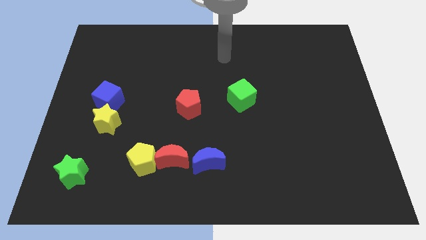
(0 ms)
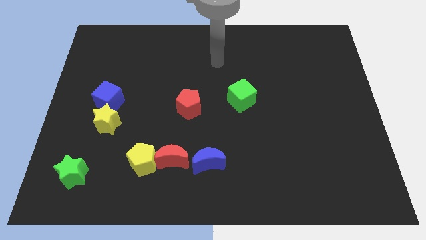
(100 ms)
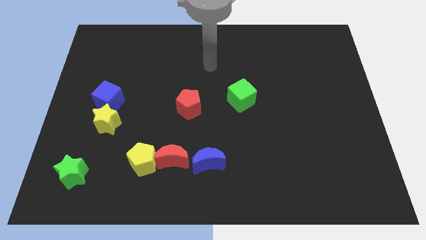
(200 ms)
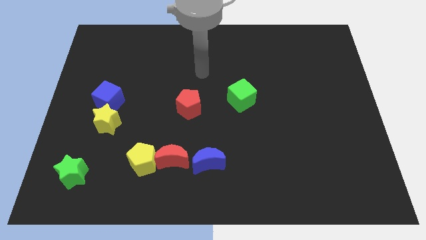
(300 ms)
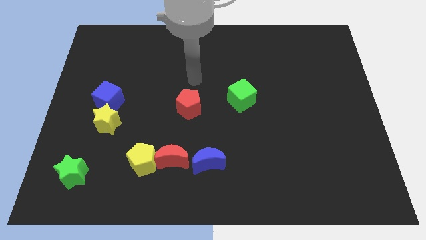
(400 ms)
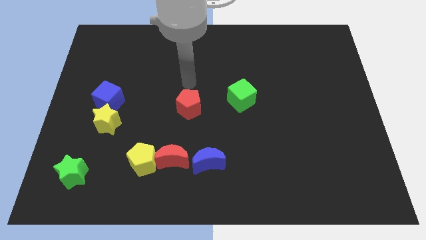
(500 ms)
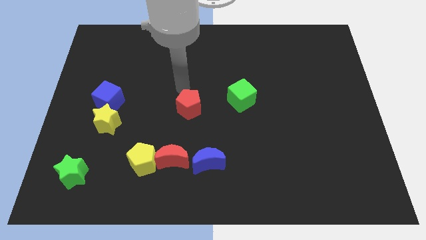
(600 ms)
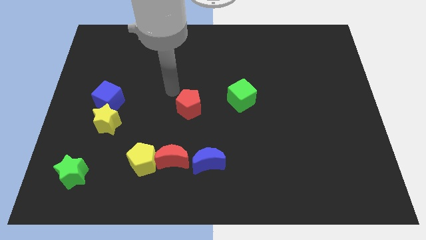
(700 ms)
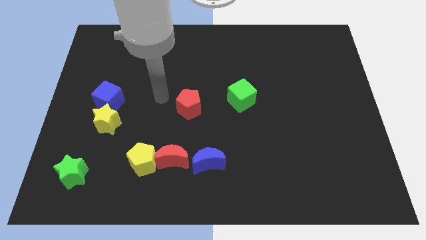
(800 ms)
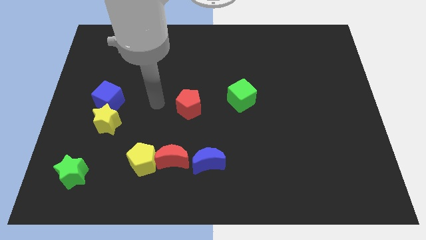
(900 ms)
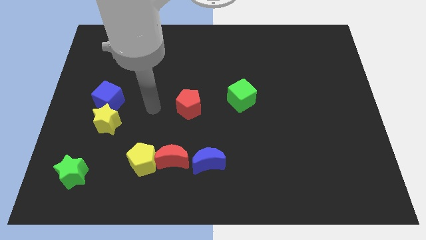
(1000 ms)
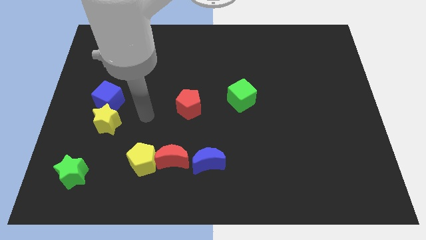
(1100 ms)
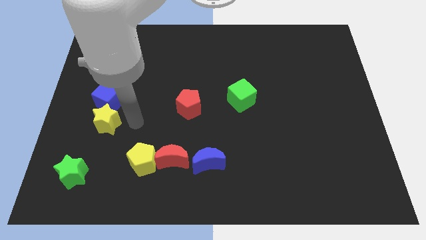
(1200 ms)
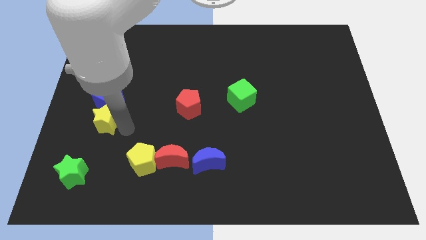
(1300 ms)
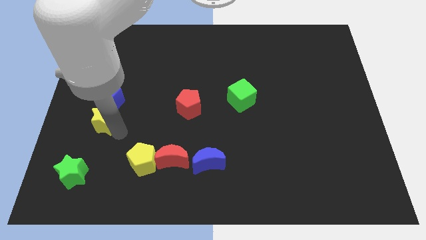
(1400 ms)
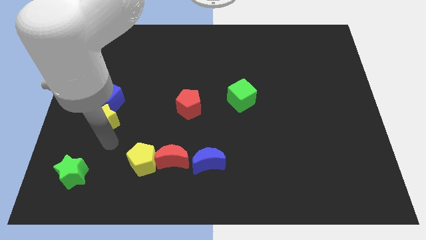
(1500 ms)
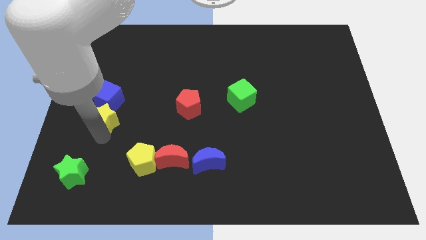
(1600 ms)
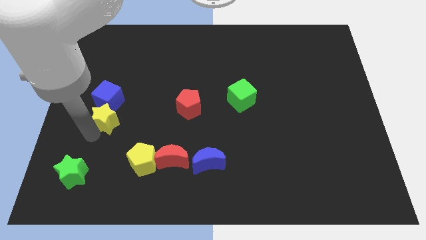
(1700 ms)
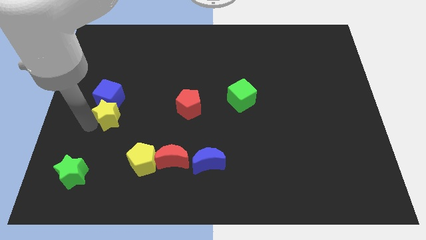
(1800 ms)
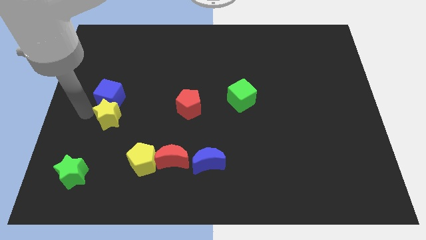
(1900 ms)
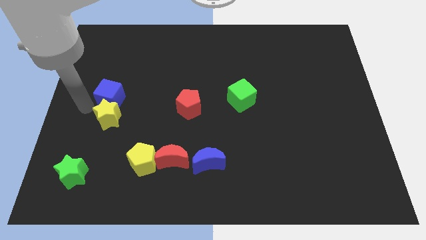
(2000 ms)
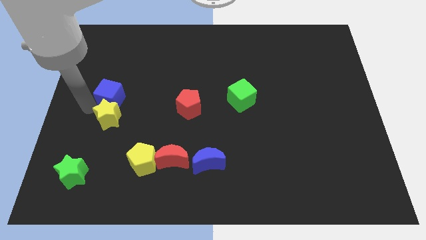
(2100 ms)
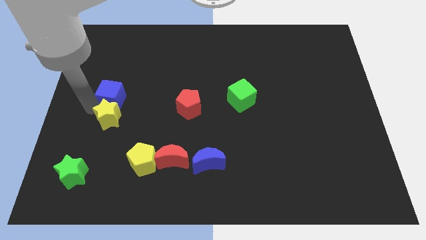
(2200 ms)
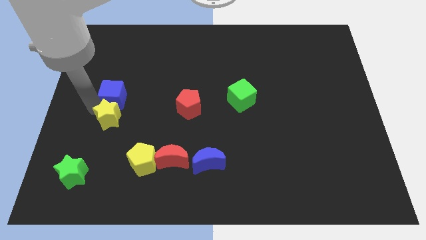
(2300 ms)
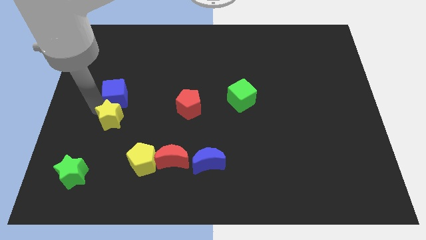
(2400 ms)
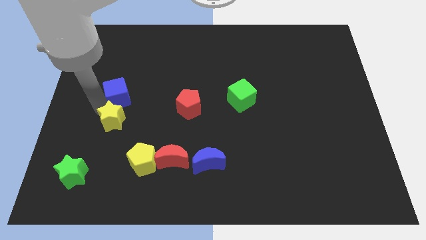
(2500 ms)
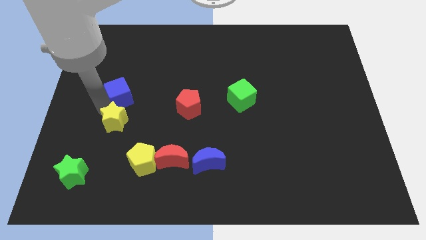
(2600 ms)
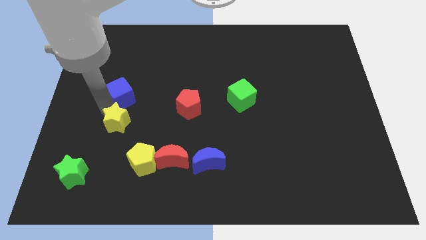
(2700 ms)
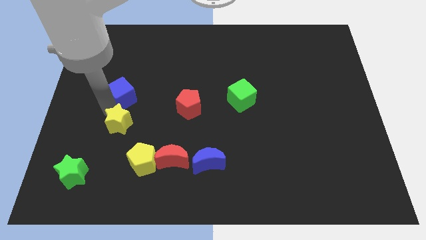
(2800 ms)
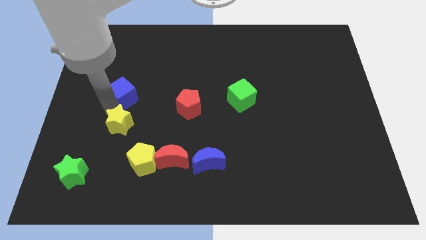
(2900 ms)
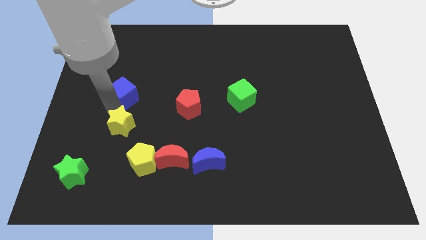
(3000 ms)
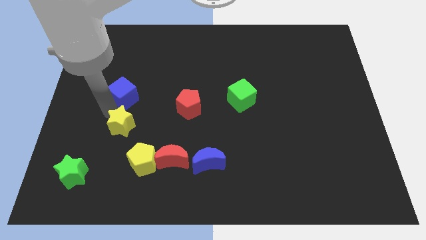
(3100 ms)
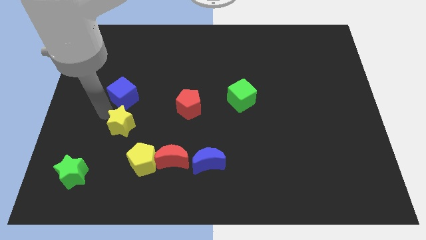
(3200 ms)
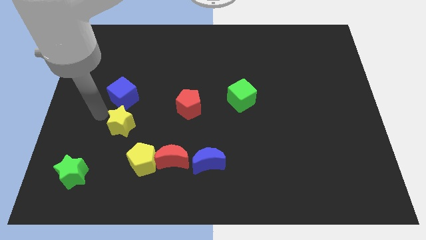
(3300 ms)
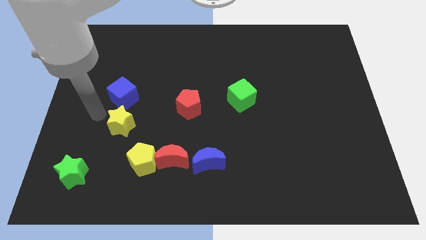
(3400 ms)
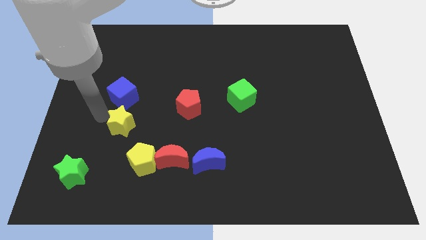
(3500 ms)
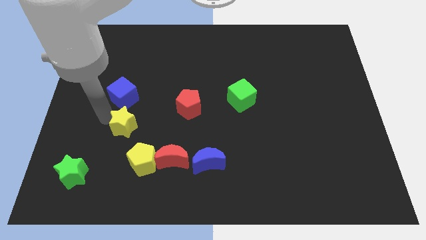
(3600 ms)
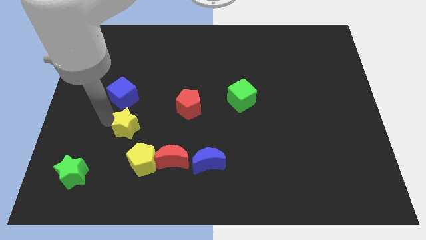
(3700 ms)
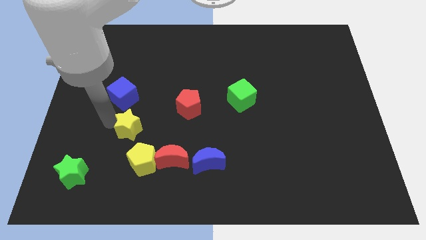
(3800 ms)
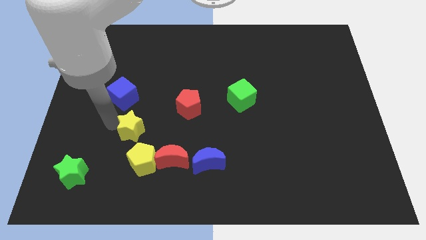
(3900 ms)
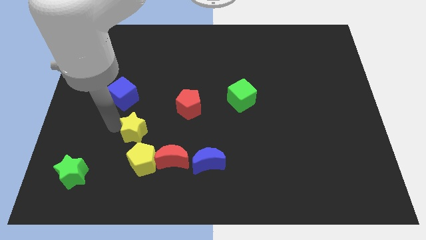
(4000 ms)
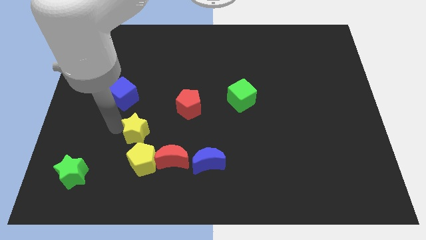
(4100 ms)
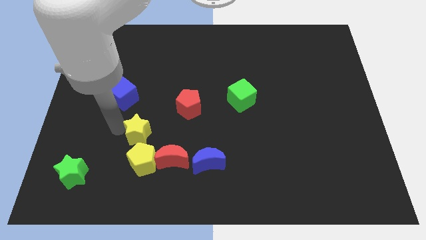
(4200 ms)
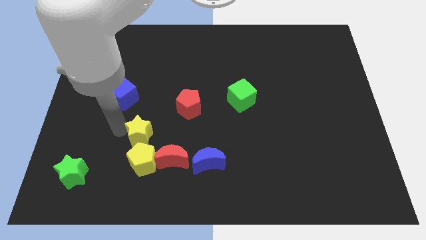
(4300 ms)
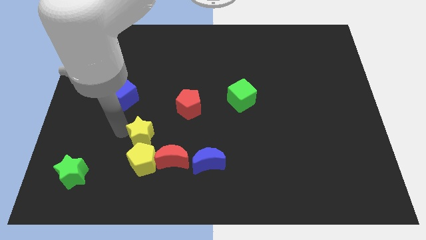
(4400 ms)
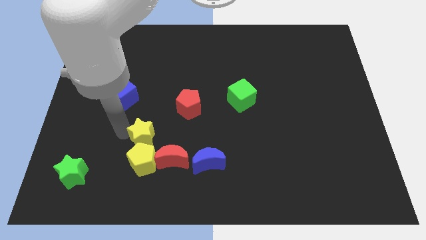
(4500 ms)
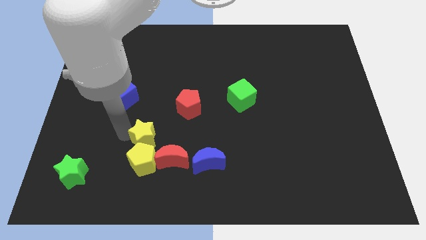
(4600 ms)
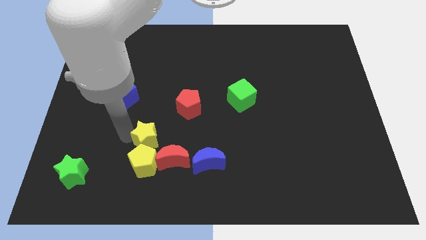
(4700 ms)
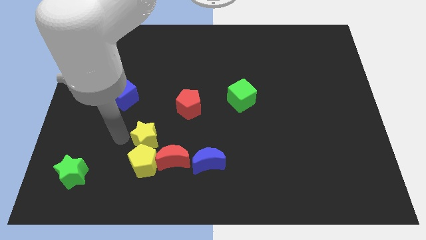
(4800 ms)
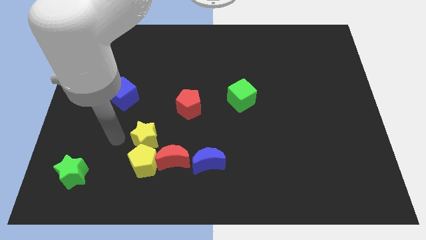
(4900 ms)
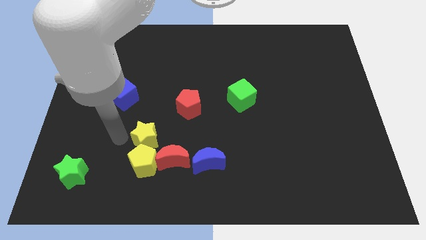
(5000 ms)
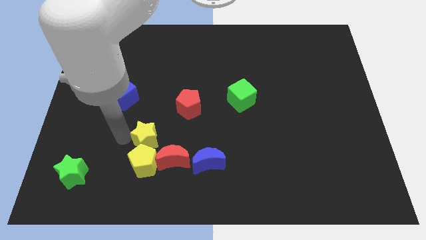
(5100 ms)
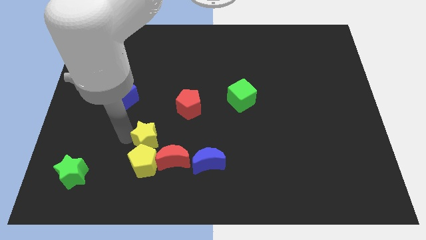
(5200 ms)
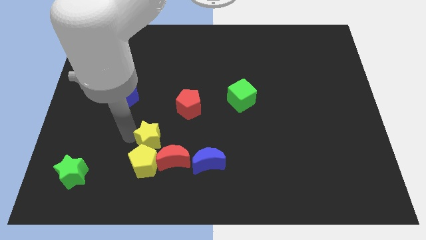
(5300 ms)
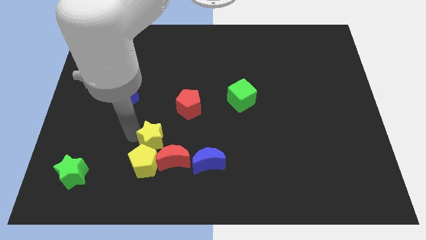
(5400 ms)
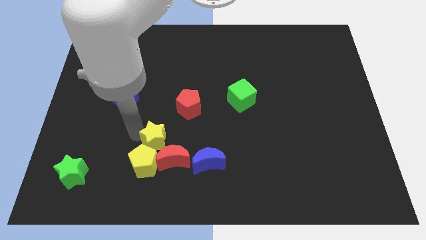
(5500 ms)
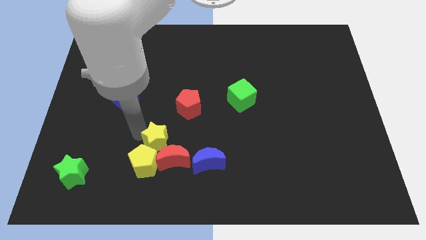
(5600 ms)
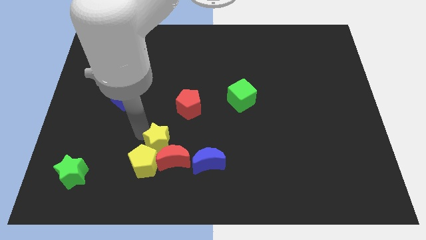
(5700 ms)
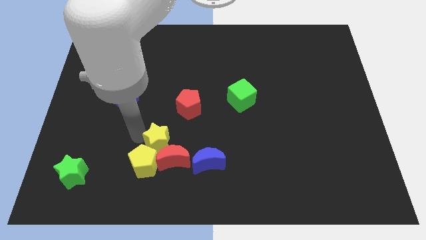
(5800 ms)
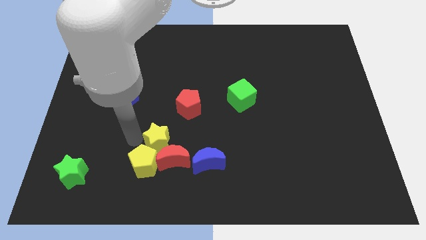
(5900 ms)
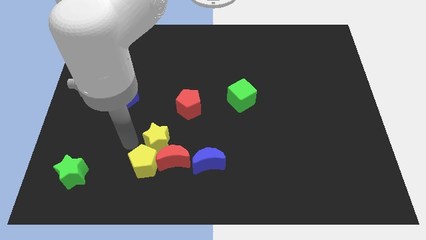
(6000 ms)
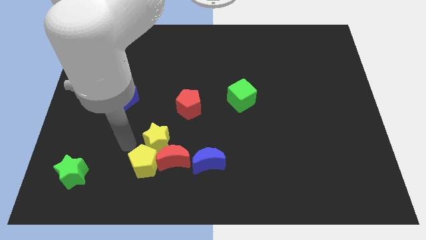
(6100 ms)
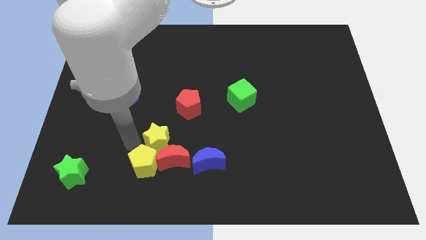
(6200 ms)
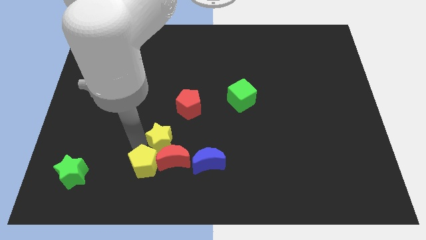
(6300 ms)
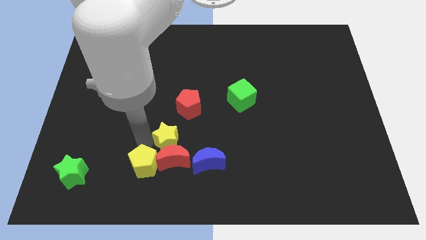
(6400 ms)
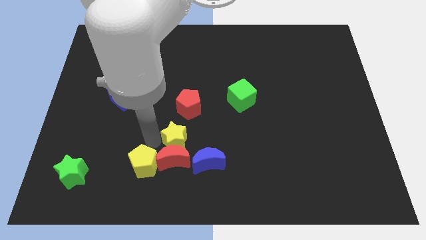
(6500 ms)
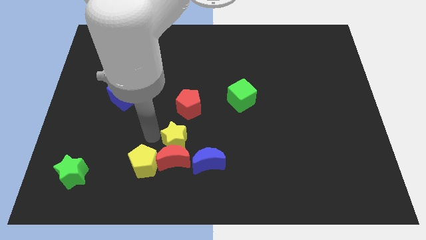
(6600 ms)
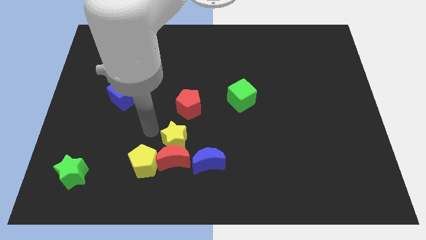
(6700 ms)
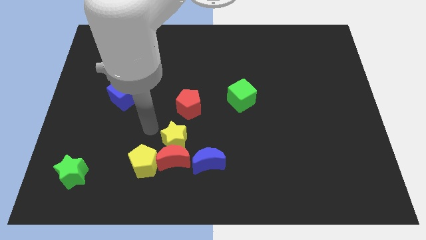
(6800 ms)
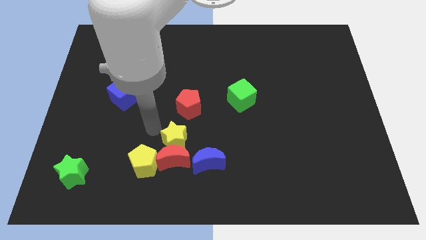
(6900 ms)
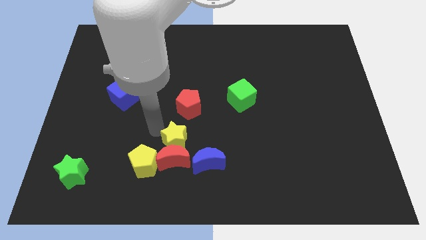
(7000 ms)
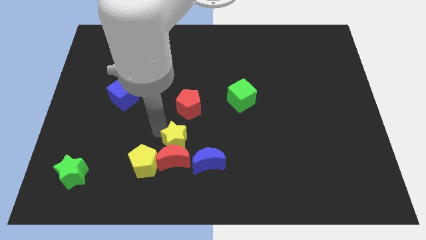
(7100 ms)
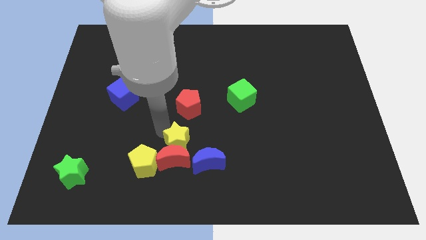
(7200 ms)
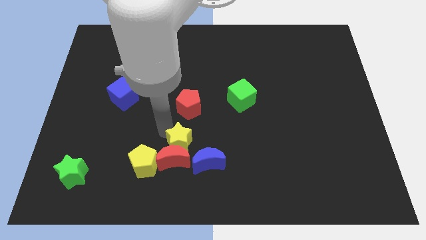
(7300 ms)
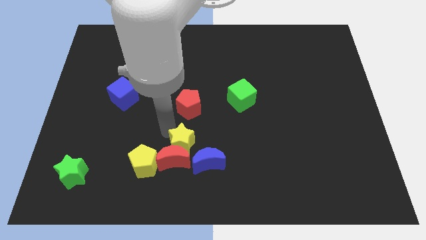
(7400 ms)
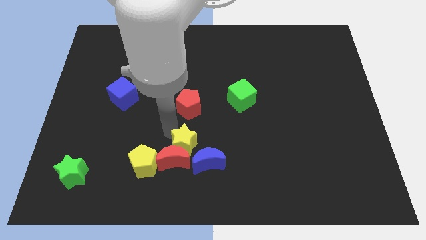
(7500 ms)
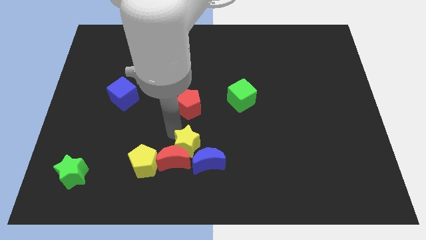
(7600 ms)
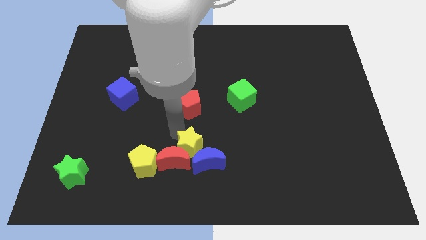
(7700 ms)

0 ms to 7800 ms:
slide the yellow star close to the blue moon
